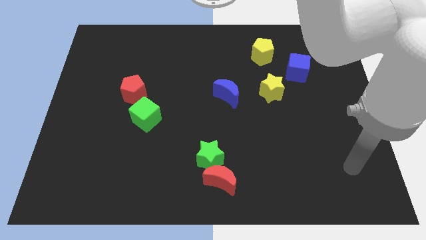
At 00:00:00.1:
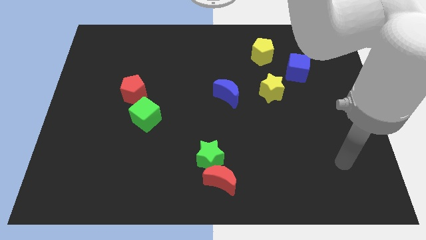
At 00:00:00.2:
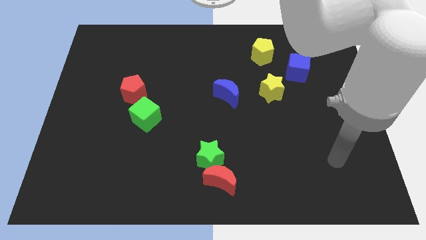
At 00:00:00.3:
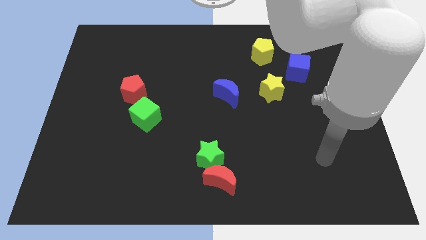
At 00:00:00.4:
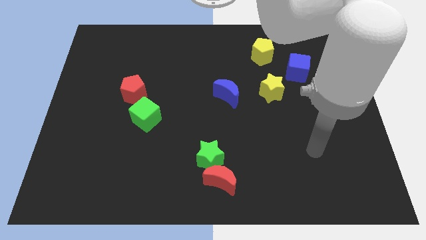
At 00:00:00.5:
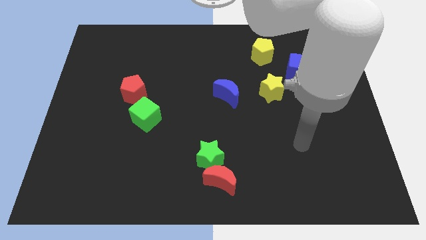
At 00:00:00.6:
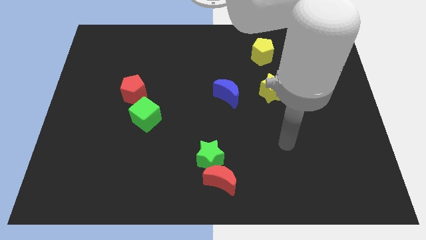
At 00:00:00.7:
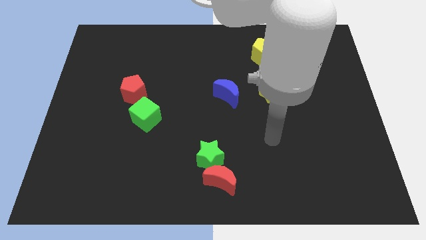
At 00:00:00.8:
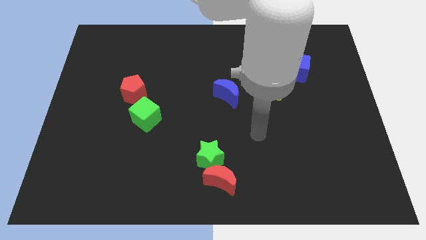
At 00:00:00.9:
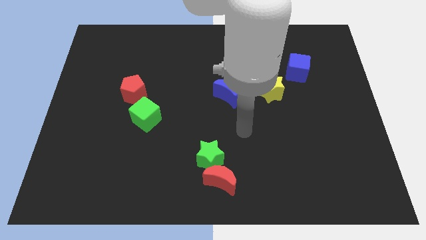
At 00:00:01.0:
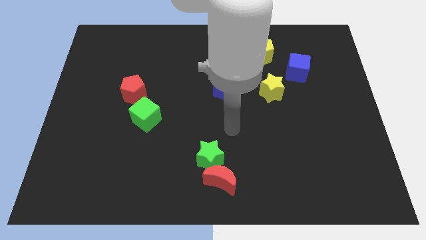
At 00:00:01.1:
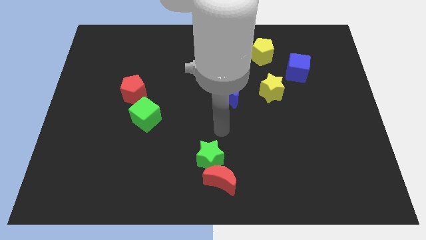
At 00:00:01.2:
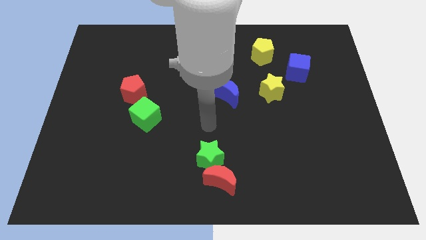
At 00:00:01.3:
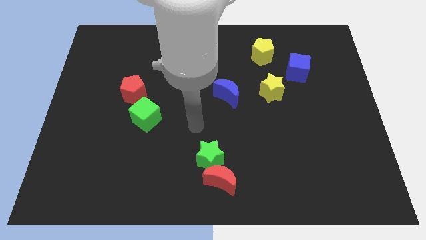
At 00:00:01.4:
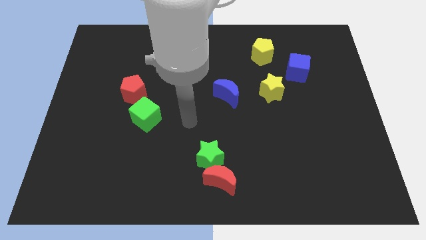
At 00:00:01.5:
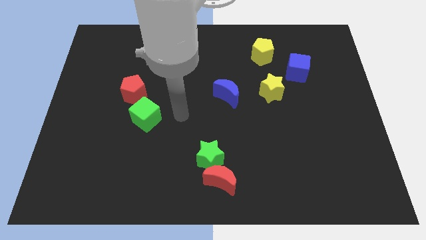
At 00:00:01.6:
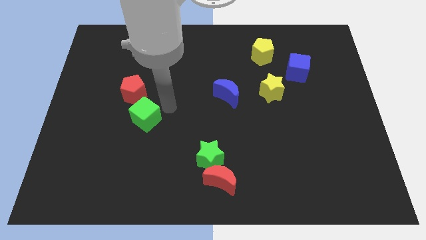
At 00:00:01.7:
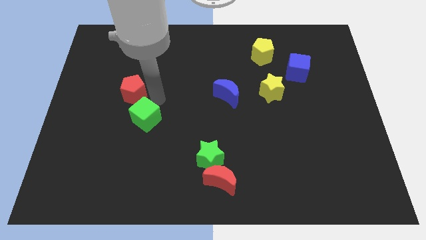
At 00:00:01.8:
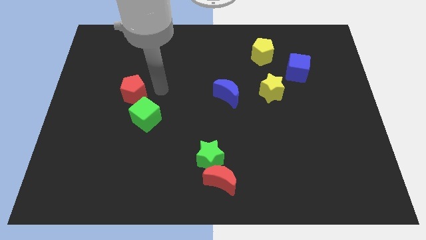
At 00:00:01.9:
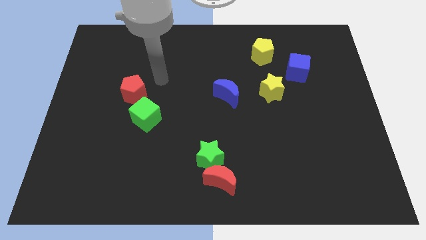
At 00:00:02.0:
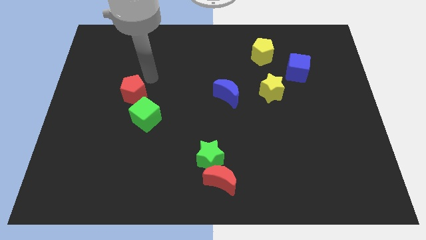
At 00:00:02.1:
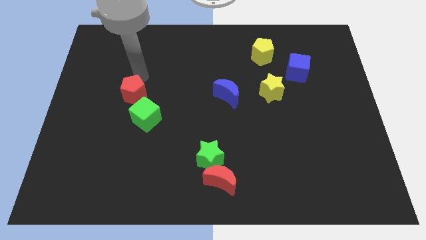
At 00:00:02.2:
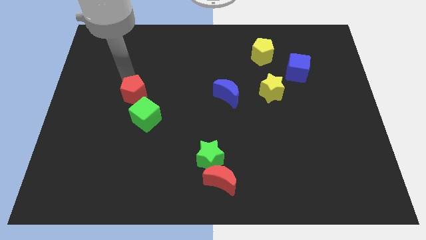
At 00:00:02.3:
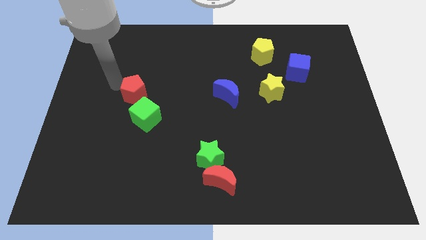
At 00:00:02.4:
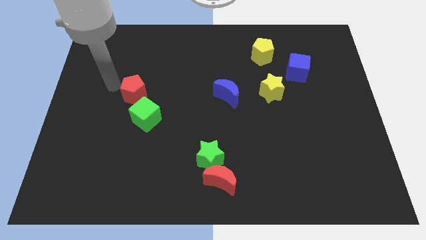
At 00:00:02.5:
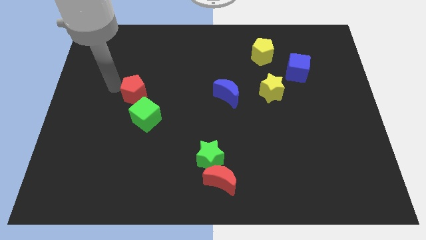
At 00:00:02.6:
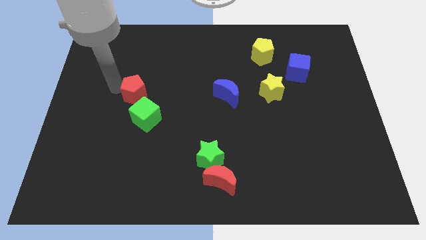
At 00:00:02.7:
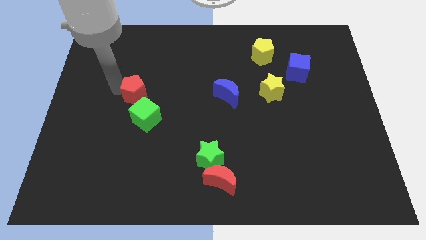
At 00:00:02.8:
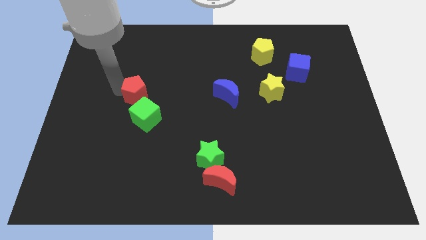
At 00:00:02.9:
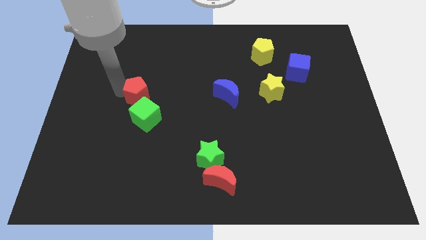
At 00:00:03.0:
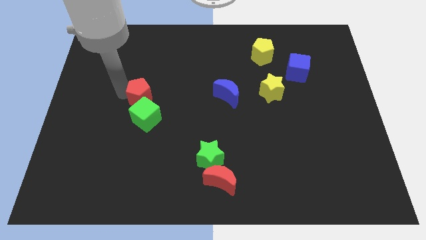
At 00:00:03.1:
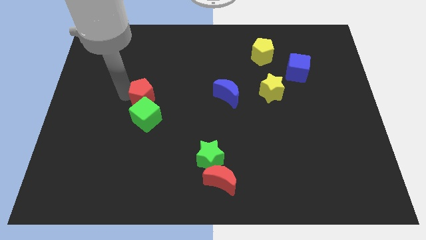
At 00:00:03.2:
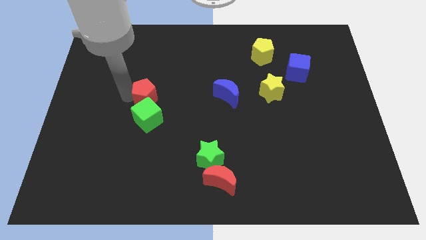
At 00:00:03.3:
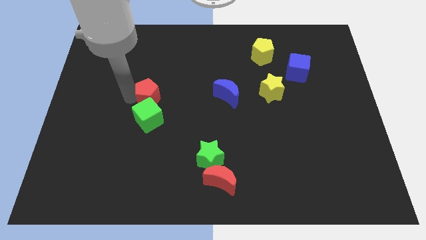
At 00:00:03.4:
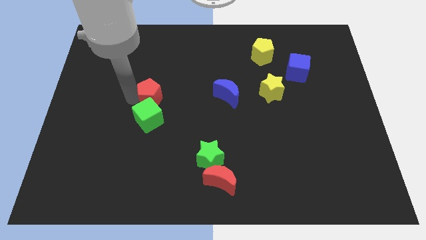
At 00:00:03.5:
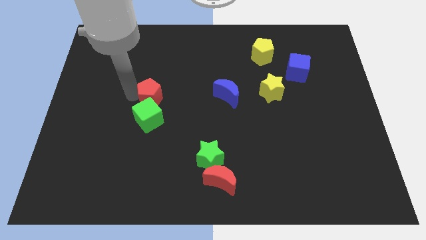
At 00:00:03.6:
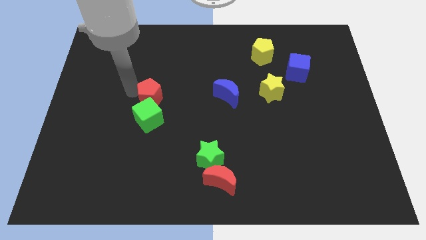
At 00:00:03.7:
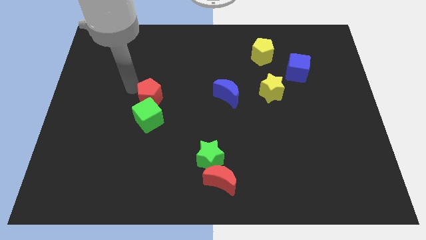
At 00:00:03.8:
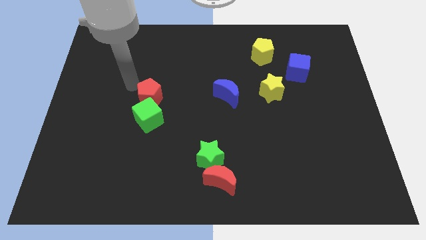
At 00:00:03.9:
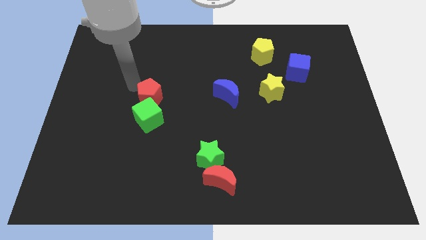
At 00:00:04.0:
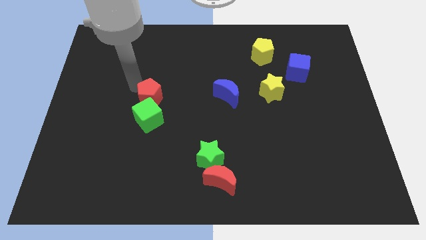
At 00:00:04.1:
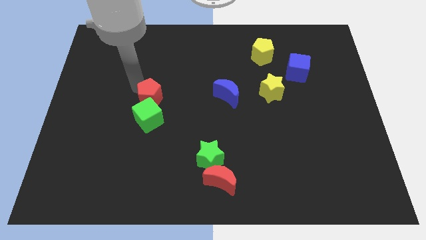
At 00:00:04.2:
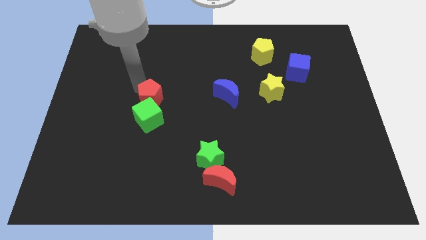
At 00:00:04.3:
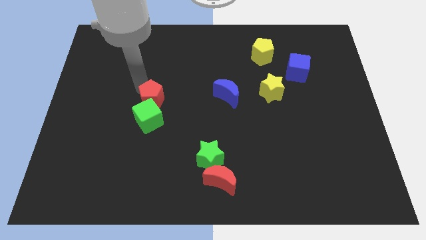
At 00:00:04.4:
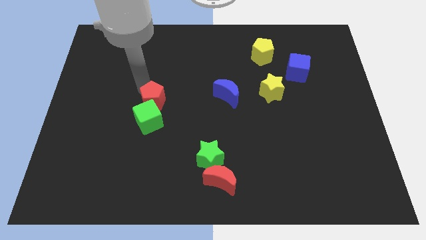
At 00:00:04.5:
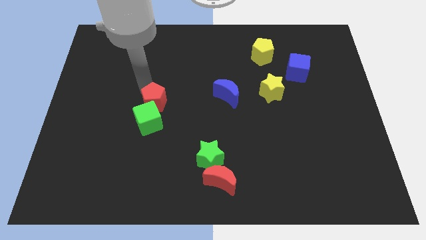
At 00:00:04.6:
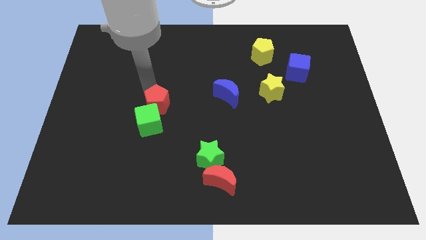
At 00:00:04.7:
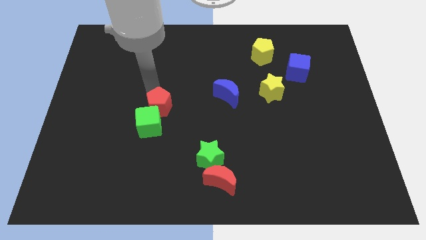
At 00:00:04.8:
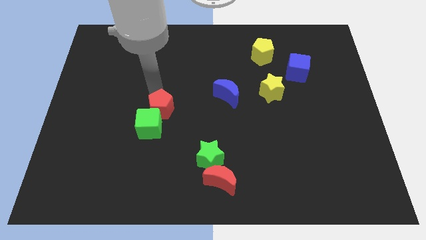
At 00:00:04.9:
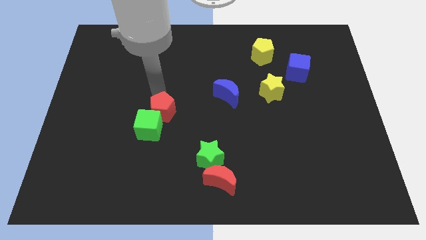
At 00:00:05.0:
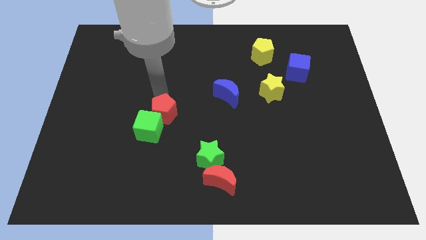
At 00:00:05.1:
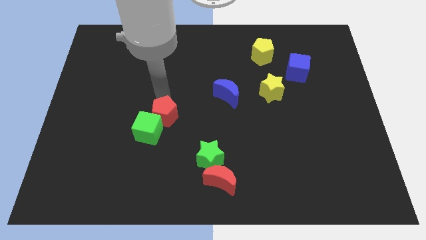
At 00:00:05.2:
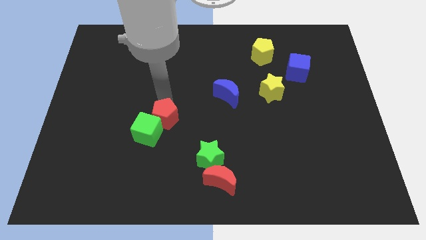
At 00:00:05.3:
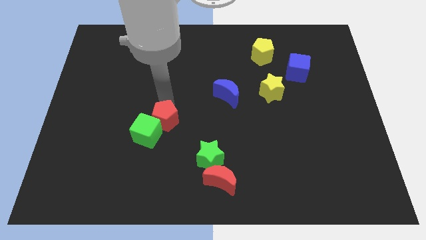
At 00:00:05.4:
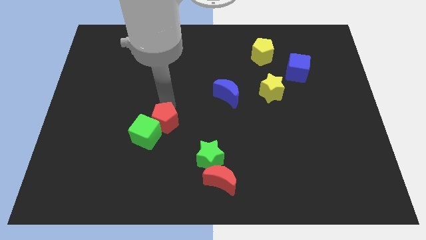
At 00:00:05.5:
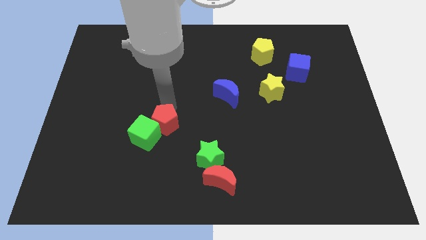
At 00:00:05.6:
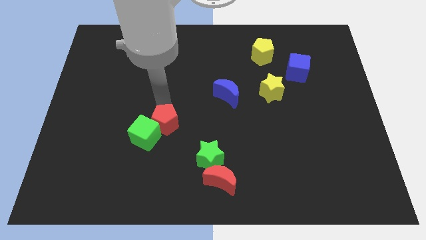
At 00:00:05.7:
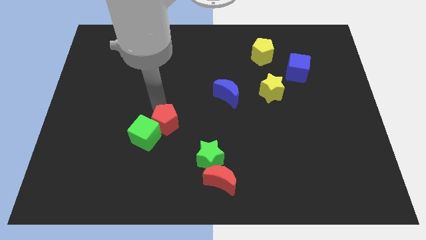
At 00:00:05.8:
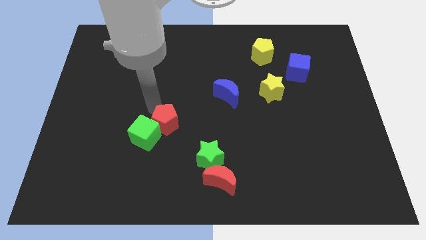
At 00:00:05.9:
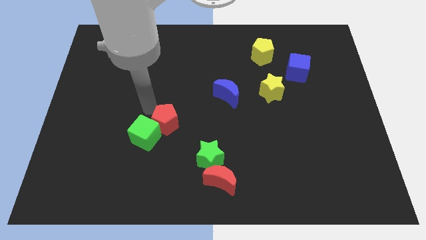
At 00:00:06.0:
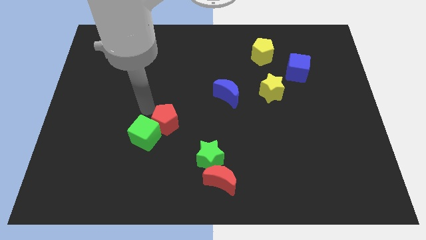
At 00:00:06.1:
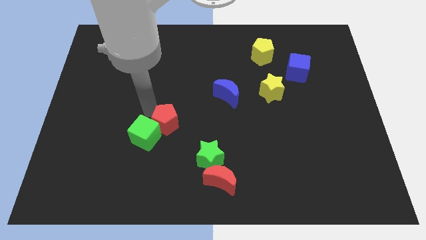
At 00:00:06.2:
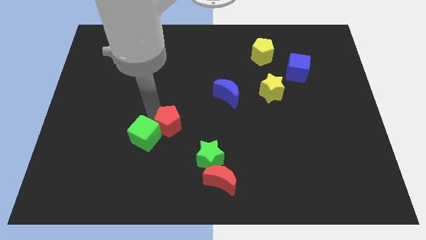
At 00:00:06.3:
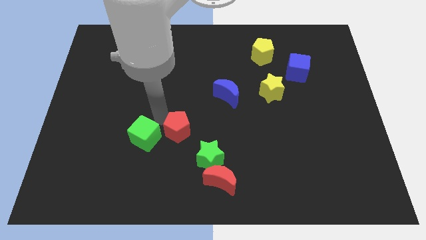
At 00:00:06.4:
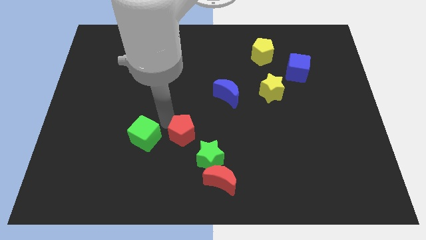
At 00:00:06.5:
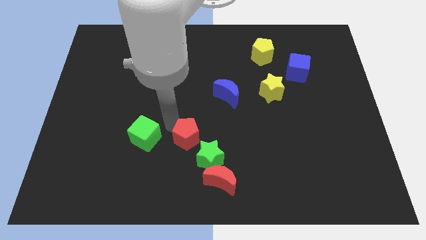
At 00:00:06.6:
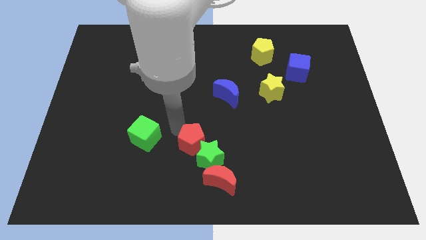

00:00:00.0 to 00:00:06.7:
push the red pentagon close to the green star
